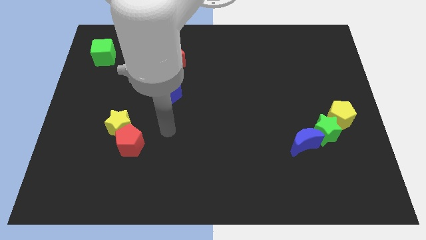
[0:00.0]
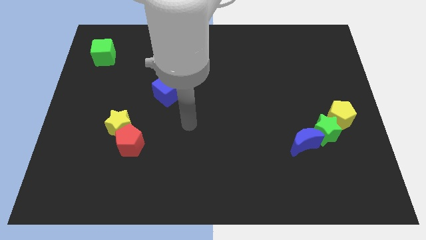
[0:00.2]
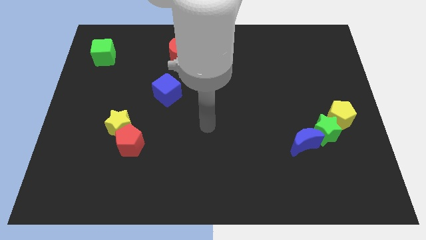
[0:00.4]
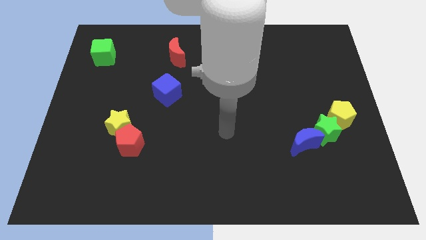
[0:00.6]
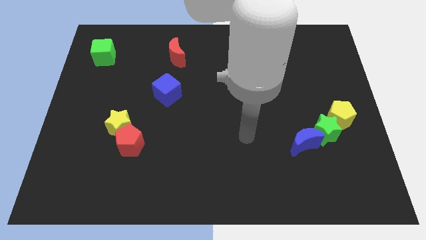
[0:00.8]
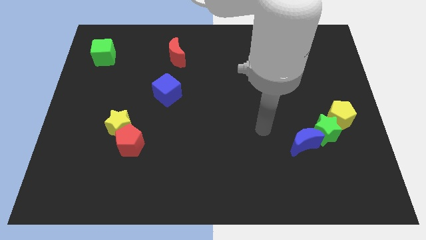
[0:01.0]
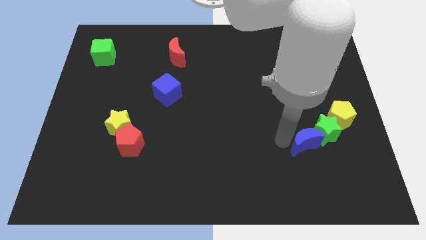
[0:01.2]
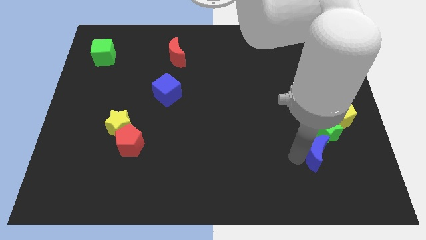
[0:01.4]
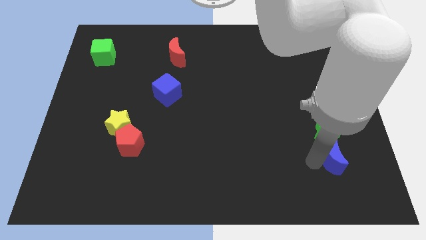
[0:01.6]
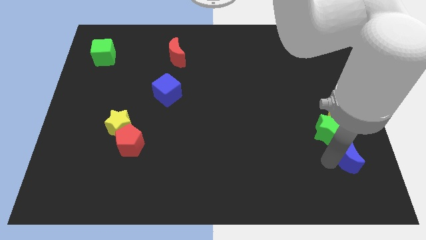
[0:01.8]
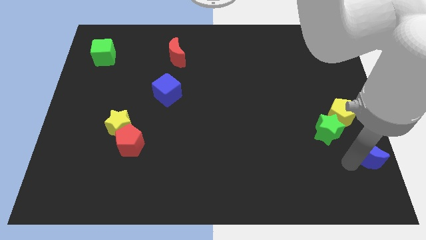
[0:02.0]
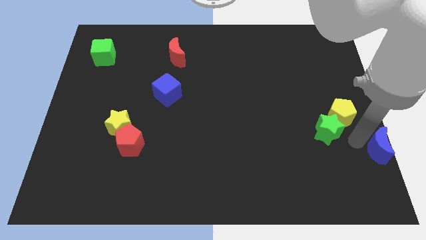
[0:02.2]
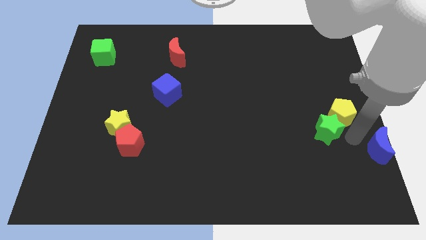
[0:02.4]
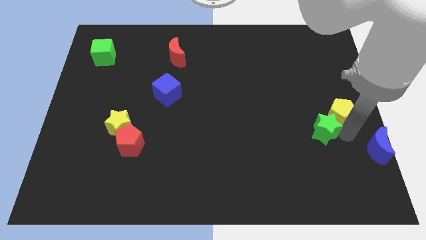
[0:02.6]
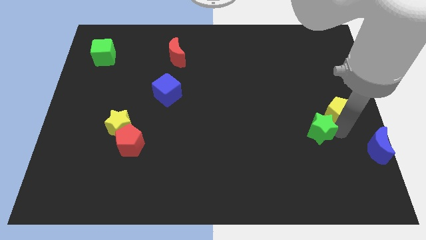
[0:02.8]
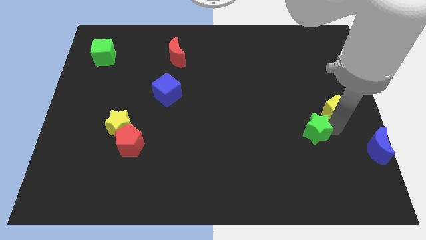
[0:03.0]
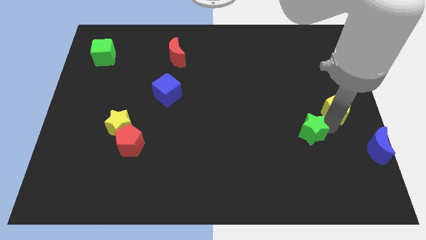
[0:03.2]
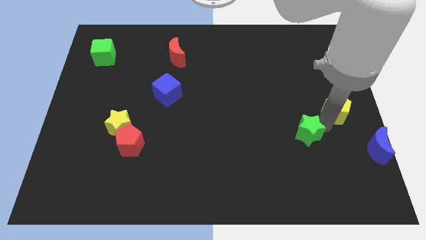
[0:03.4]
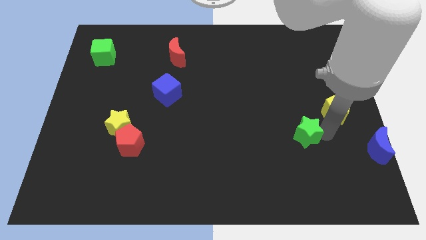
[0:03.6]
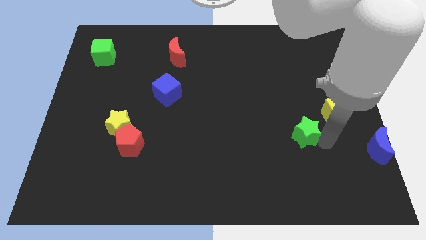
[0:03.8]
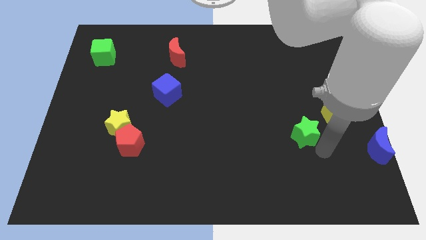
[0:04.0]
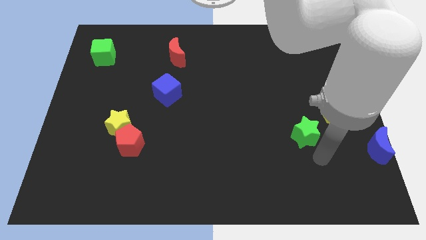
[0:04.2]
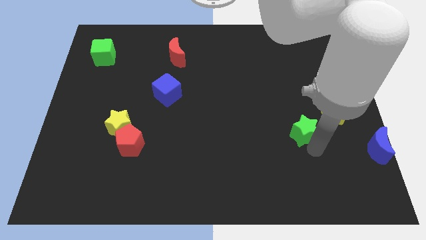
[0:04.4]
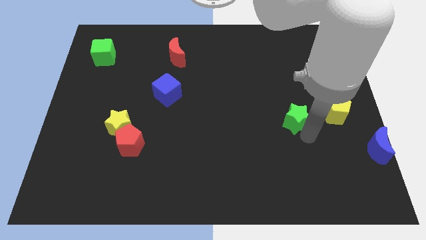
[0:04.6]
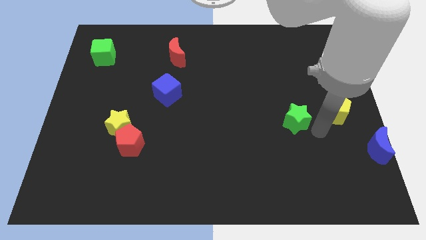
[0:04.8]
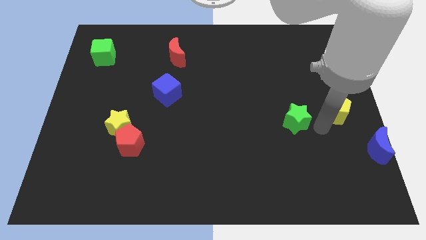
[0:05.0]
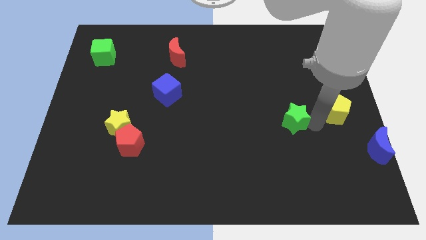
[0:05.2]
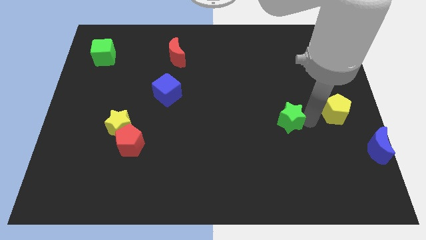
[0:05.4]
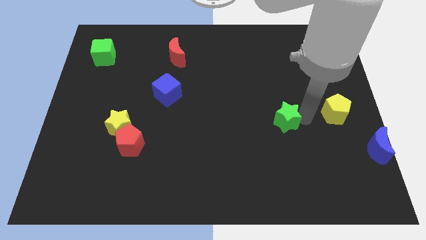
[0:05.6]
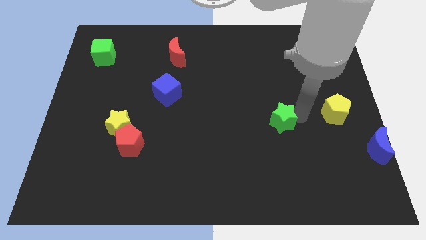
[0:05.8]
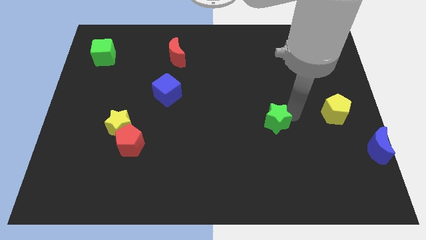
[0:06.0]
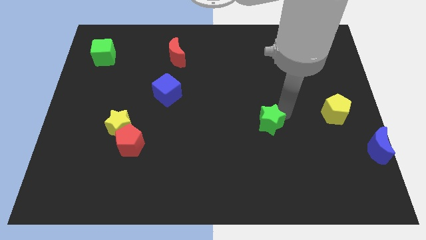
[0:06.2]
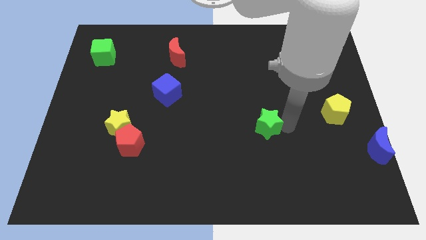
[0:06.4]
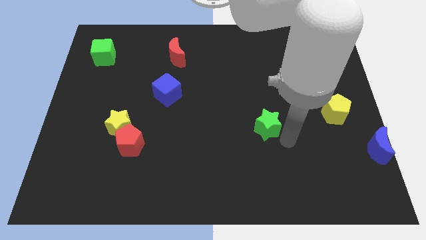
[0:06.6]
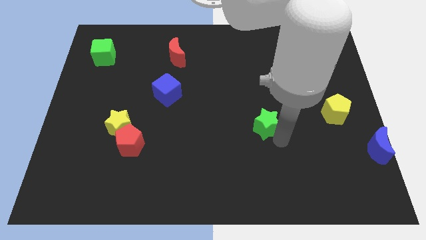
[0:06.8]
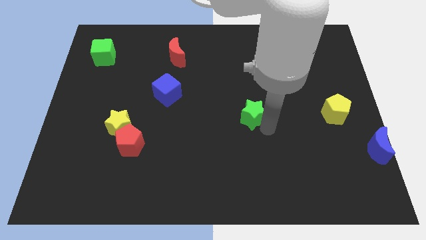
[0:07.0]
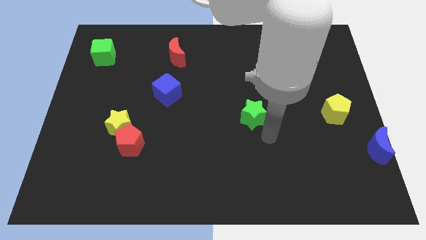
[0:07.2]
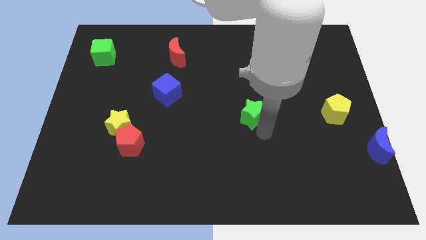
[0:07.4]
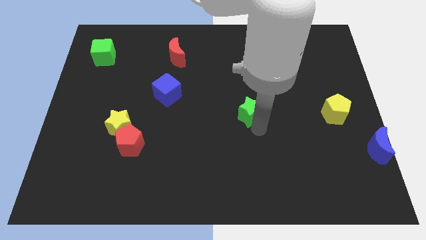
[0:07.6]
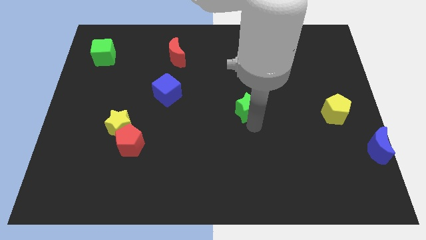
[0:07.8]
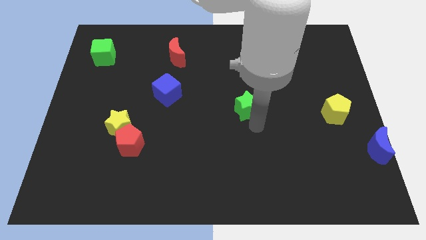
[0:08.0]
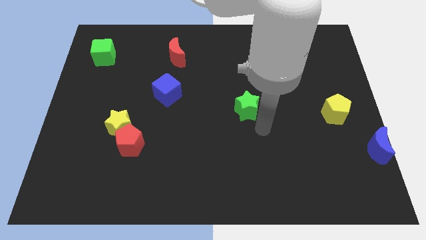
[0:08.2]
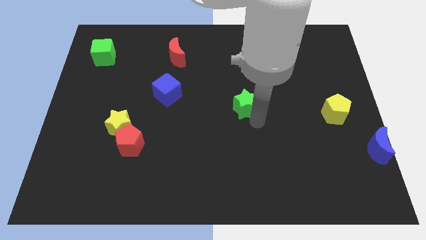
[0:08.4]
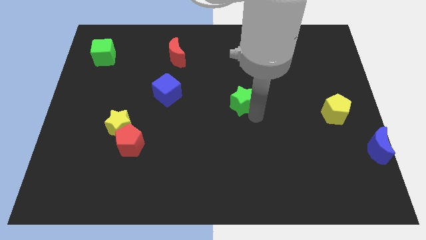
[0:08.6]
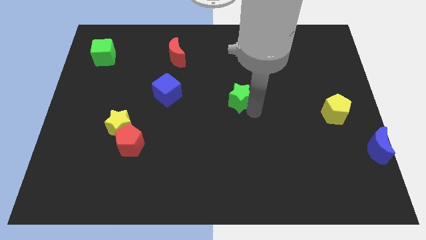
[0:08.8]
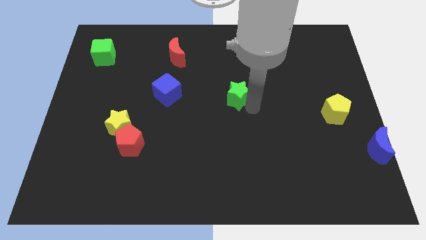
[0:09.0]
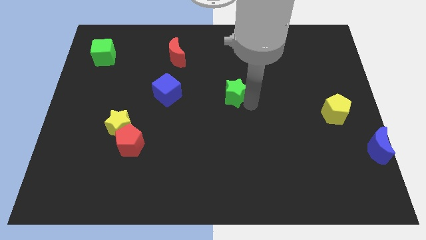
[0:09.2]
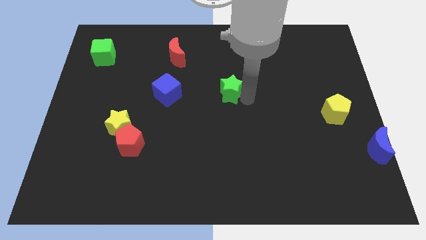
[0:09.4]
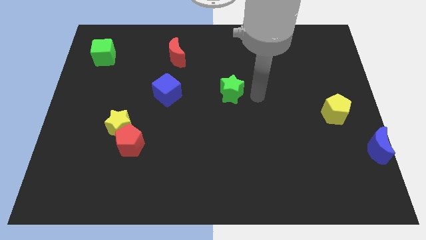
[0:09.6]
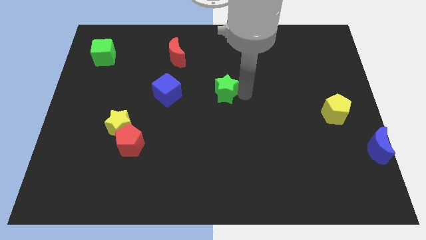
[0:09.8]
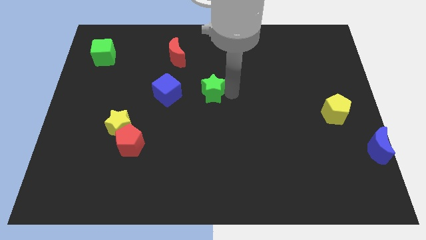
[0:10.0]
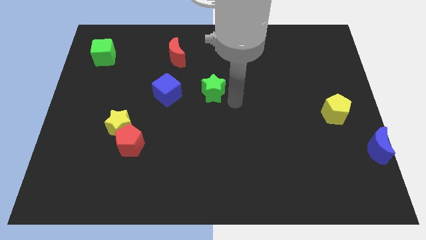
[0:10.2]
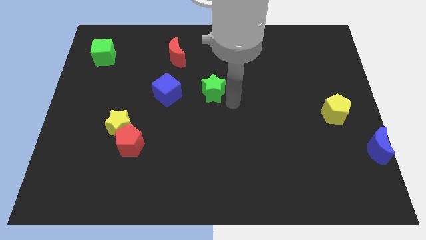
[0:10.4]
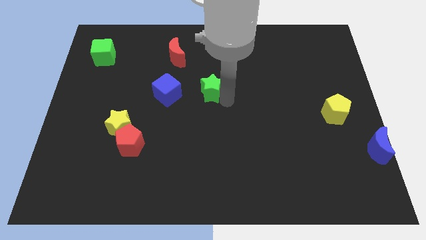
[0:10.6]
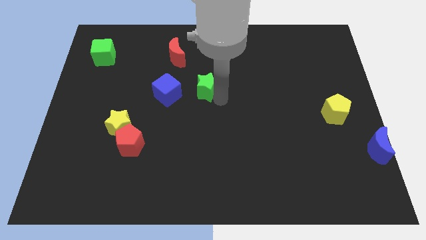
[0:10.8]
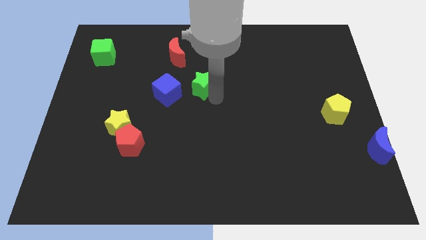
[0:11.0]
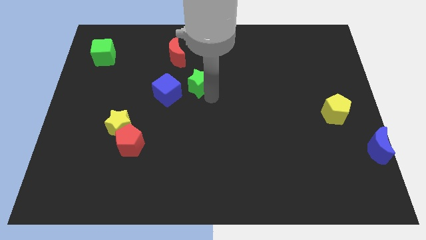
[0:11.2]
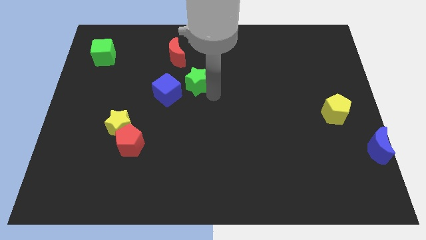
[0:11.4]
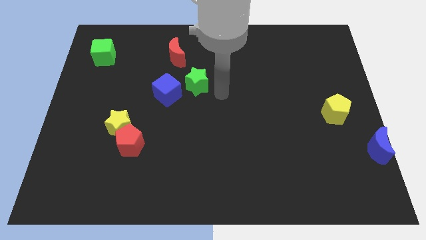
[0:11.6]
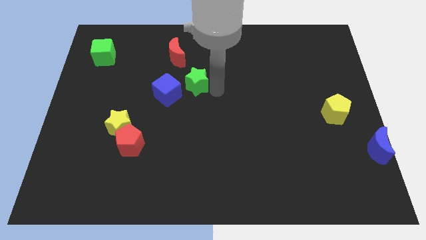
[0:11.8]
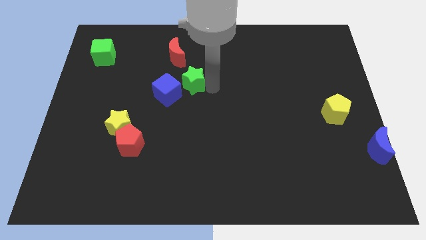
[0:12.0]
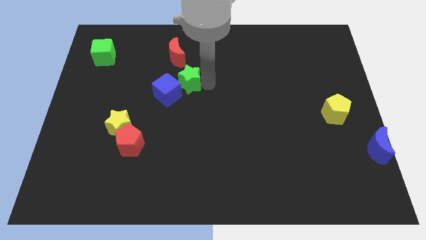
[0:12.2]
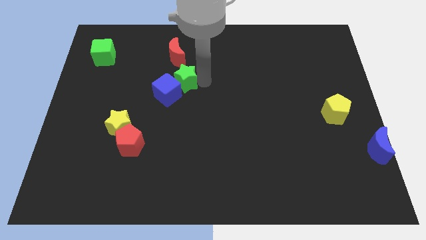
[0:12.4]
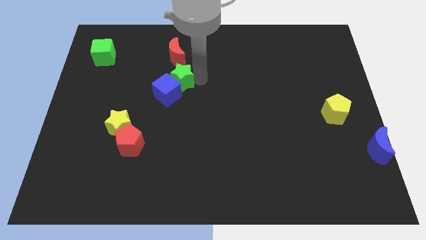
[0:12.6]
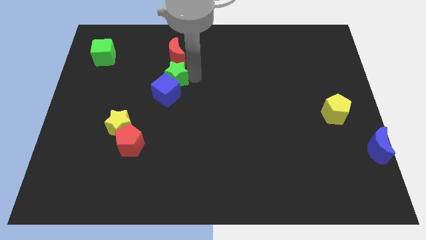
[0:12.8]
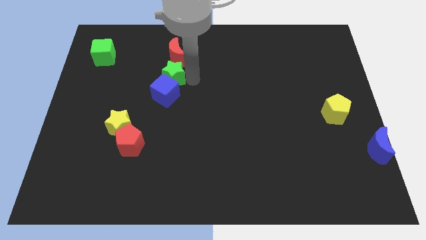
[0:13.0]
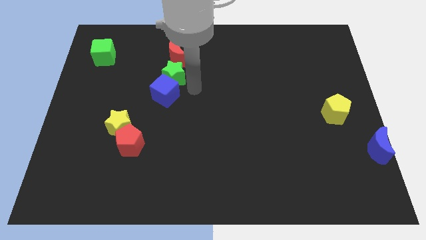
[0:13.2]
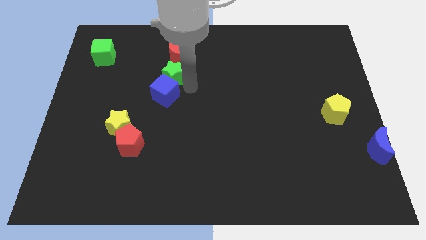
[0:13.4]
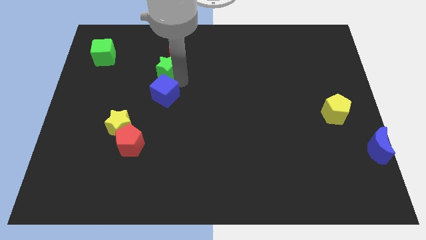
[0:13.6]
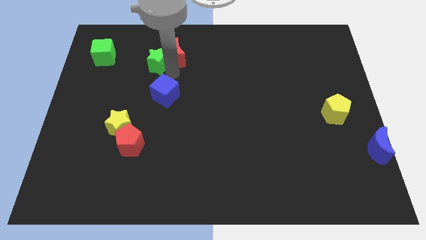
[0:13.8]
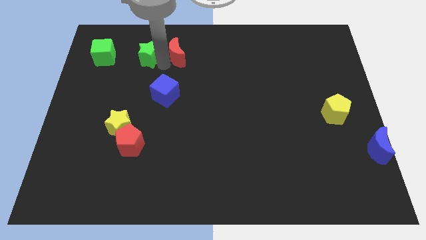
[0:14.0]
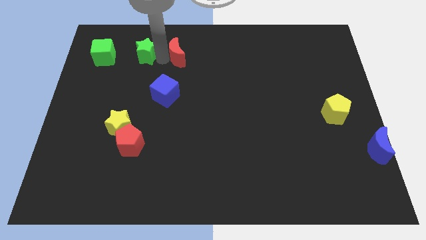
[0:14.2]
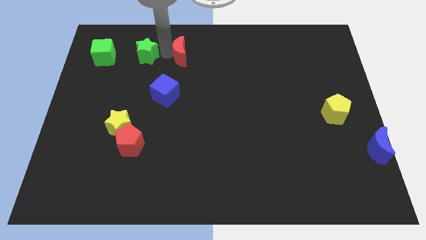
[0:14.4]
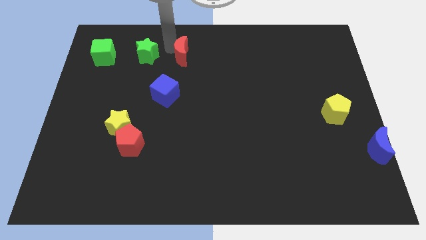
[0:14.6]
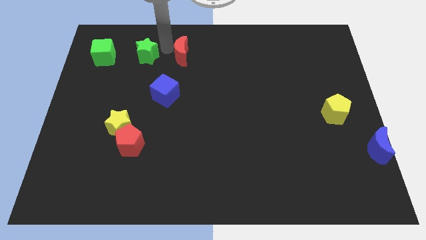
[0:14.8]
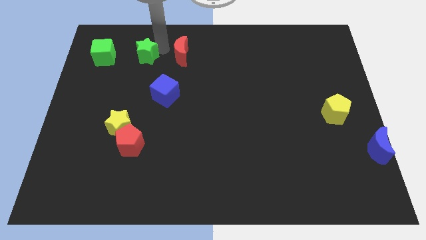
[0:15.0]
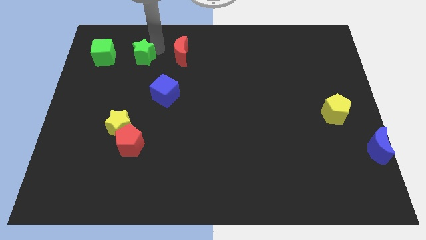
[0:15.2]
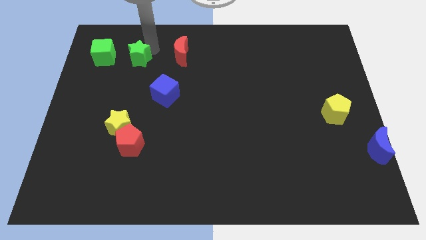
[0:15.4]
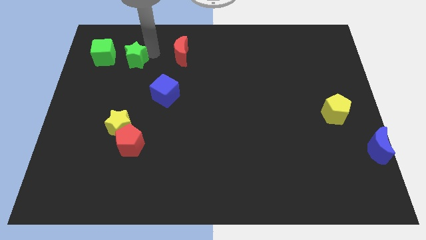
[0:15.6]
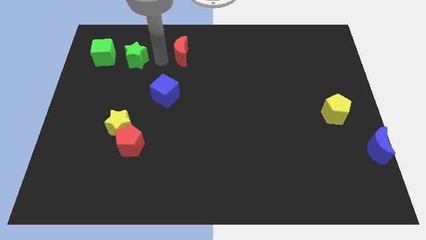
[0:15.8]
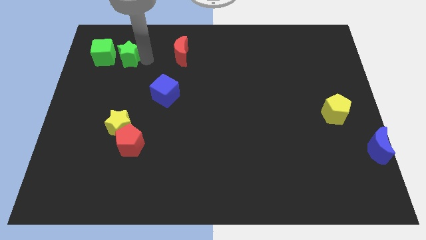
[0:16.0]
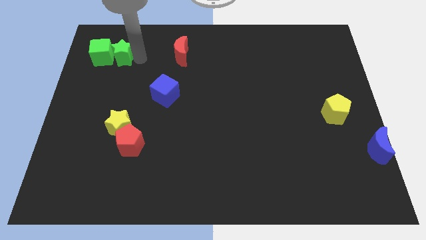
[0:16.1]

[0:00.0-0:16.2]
put the green star towards the green cube
